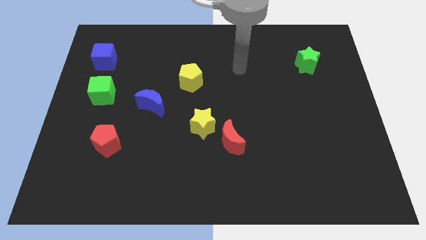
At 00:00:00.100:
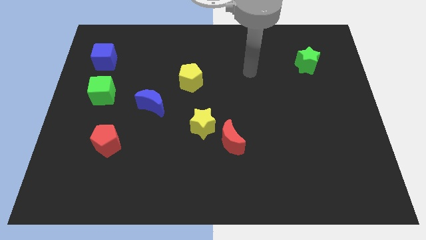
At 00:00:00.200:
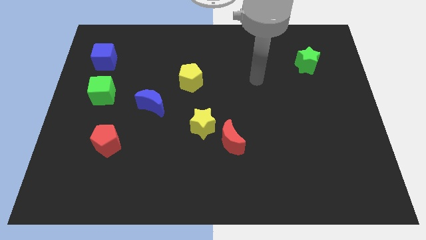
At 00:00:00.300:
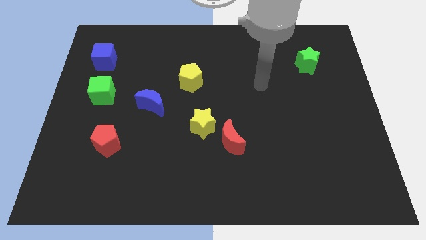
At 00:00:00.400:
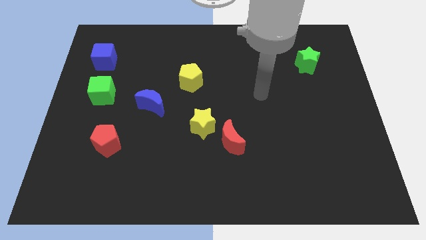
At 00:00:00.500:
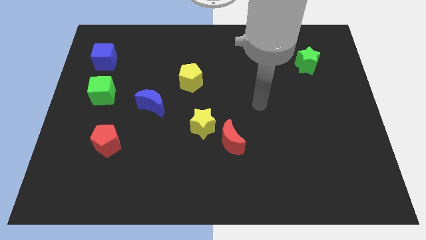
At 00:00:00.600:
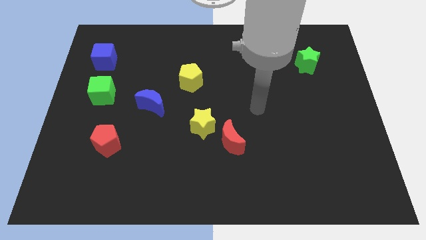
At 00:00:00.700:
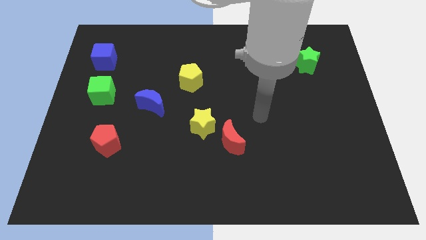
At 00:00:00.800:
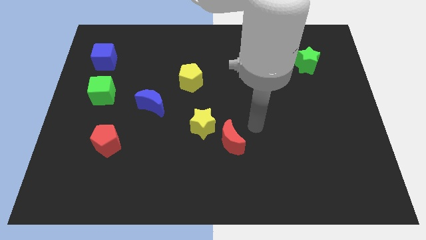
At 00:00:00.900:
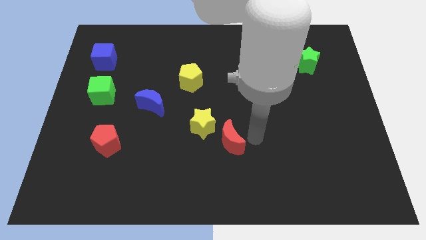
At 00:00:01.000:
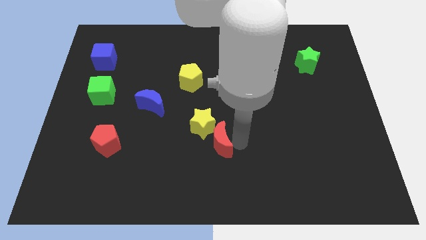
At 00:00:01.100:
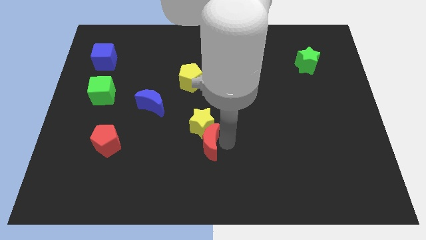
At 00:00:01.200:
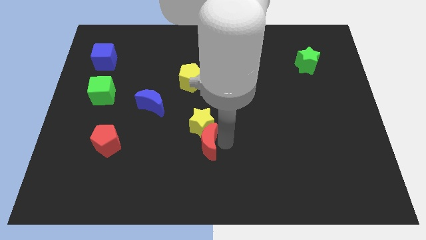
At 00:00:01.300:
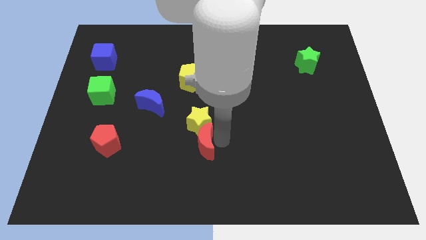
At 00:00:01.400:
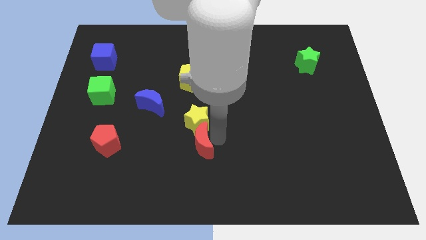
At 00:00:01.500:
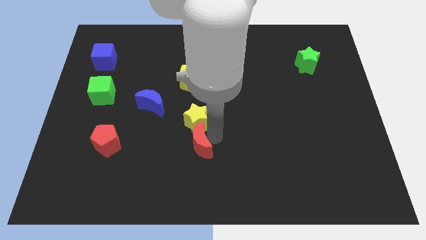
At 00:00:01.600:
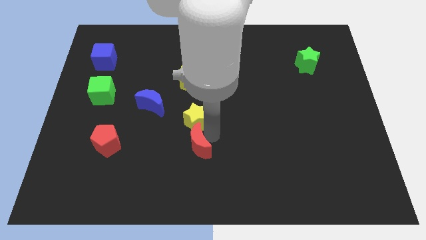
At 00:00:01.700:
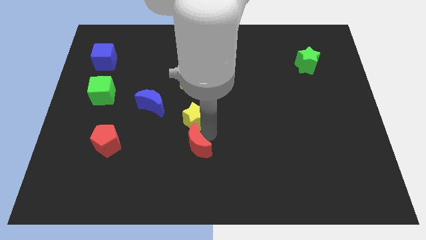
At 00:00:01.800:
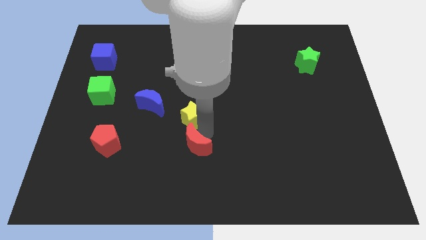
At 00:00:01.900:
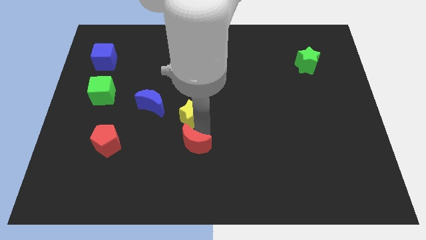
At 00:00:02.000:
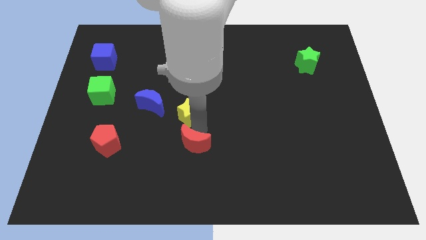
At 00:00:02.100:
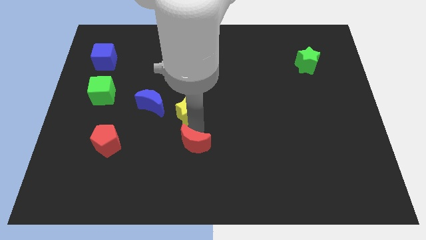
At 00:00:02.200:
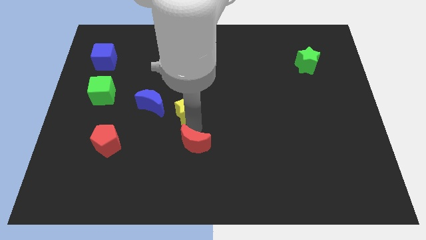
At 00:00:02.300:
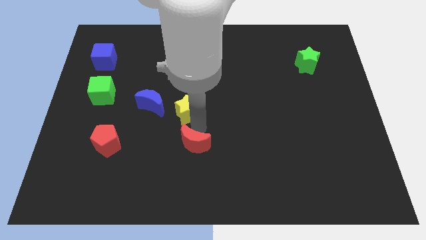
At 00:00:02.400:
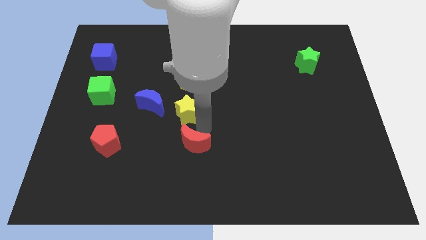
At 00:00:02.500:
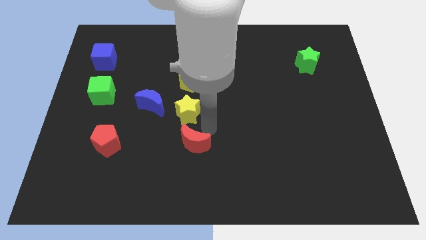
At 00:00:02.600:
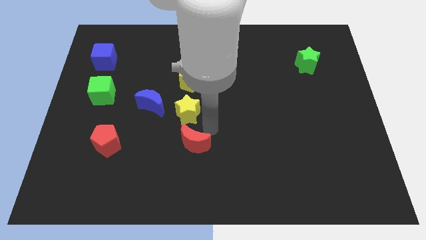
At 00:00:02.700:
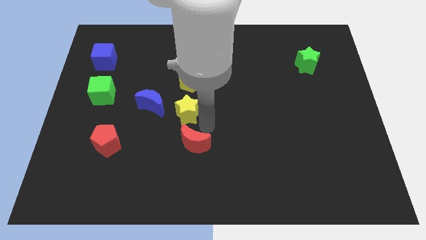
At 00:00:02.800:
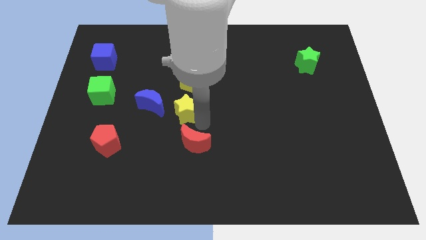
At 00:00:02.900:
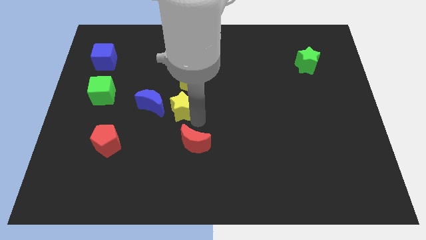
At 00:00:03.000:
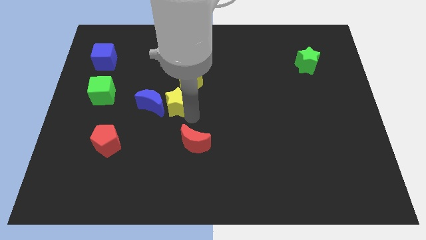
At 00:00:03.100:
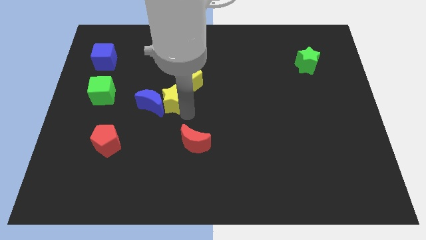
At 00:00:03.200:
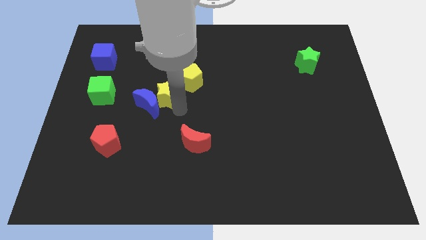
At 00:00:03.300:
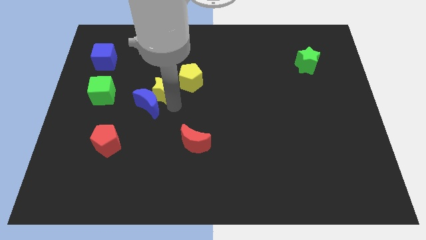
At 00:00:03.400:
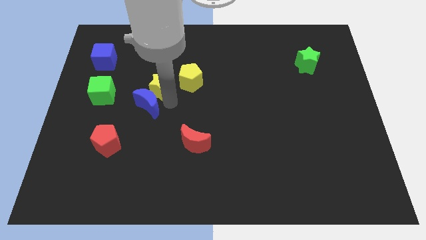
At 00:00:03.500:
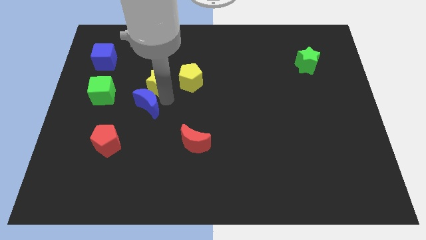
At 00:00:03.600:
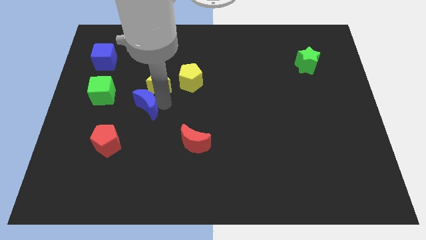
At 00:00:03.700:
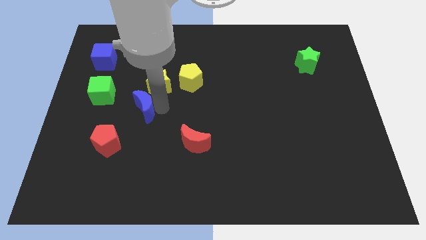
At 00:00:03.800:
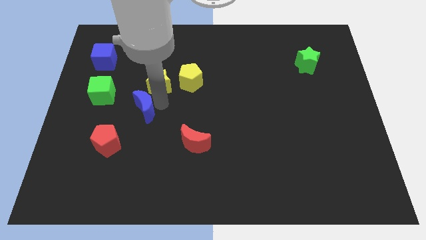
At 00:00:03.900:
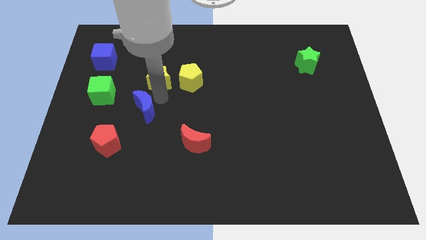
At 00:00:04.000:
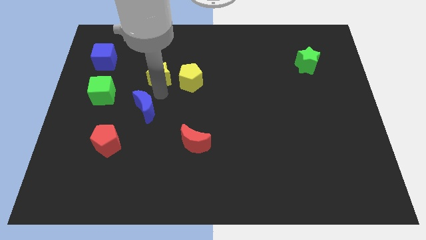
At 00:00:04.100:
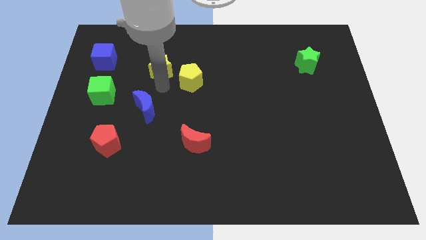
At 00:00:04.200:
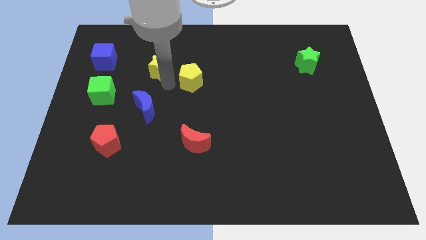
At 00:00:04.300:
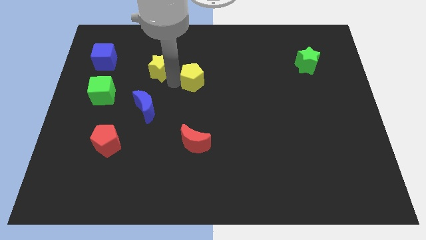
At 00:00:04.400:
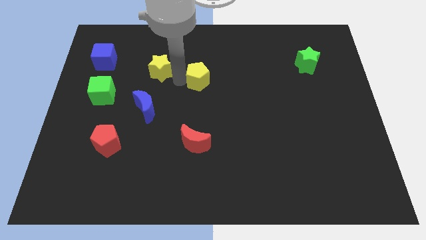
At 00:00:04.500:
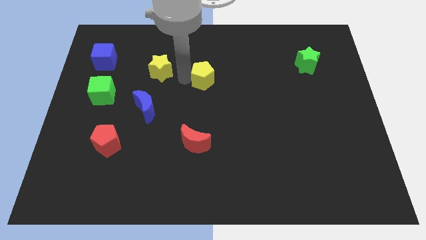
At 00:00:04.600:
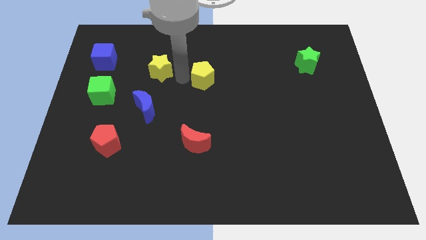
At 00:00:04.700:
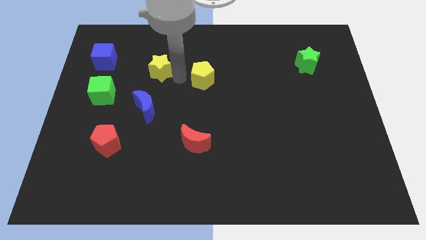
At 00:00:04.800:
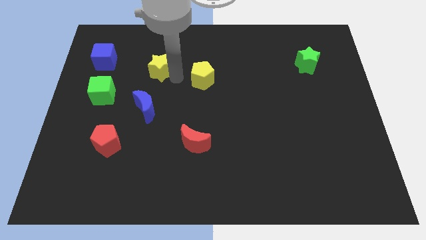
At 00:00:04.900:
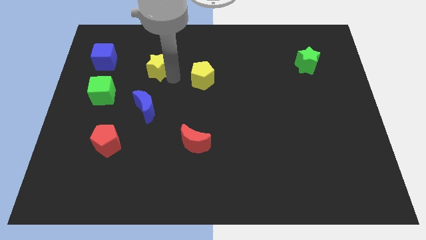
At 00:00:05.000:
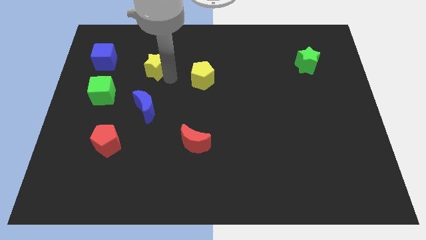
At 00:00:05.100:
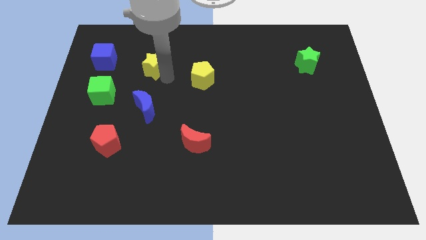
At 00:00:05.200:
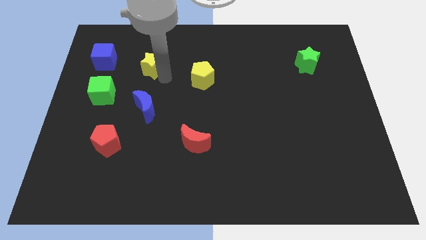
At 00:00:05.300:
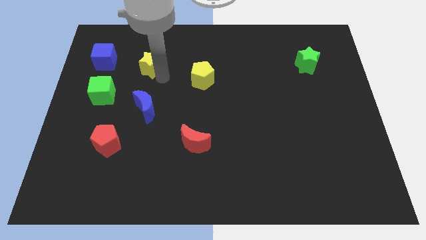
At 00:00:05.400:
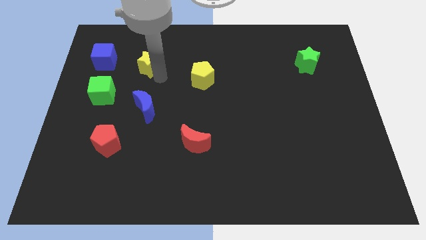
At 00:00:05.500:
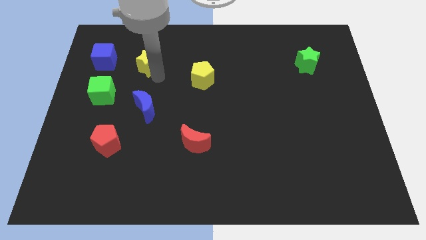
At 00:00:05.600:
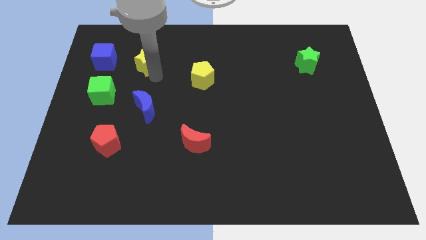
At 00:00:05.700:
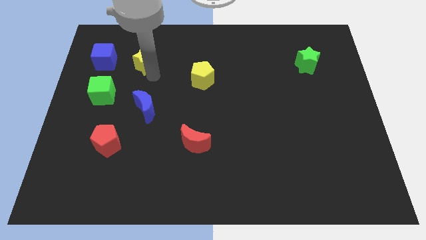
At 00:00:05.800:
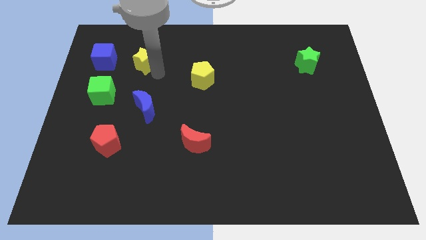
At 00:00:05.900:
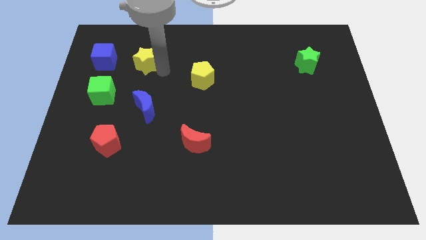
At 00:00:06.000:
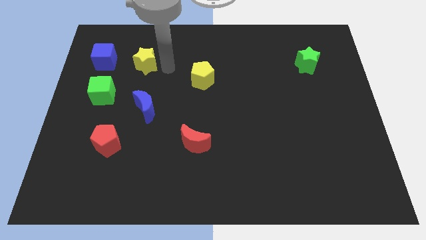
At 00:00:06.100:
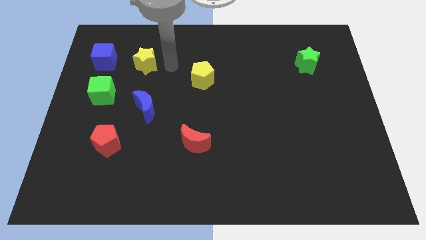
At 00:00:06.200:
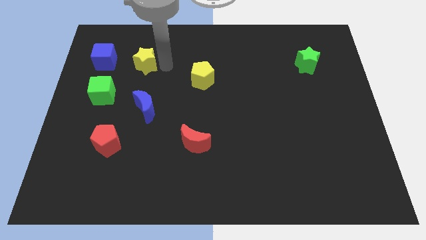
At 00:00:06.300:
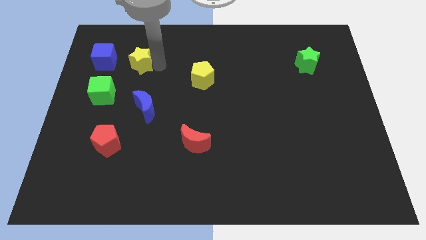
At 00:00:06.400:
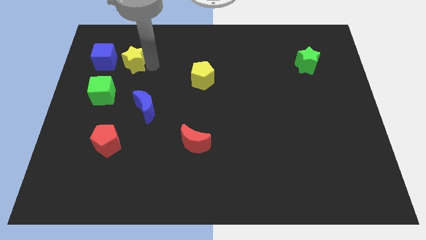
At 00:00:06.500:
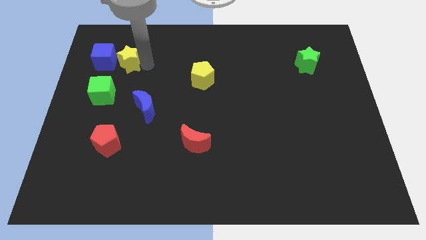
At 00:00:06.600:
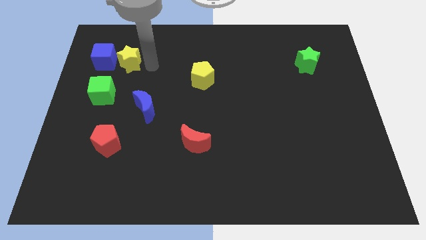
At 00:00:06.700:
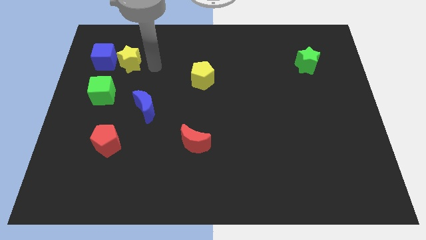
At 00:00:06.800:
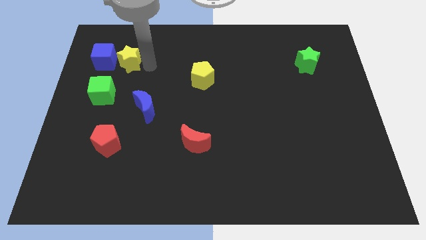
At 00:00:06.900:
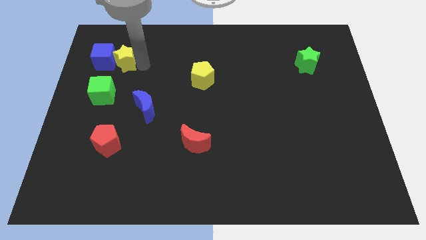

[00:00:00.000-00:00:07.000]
slide the yellow star towards the blue cube

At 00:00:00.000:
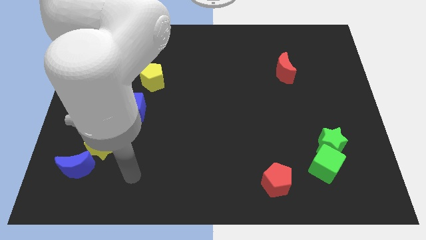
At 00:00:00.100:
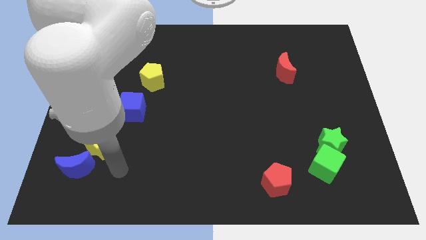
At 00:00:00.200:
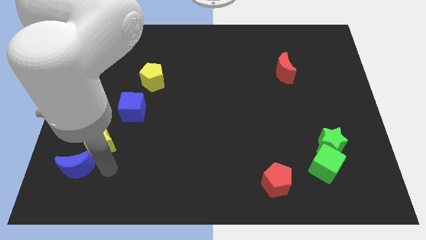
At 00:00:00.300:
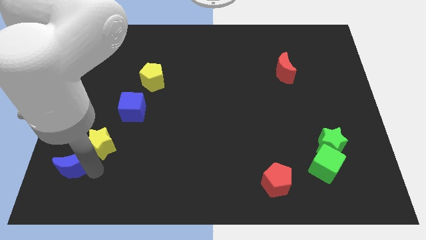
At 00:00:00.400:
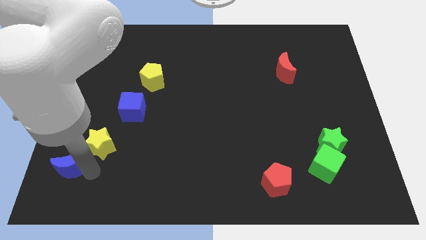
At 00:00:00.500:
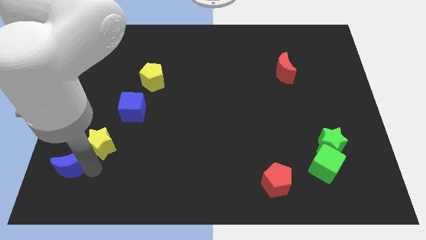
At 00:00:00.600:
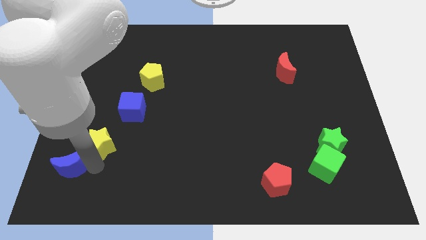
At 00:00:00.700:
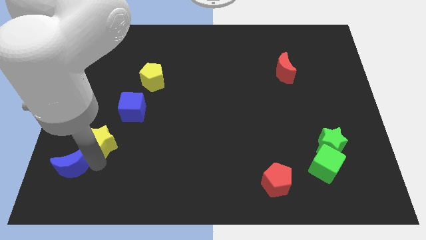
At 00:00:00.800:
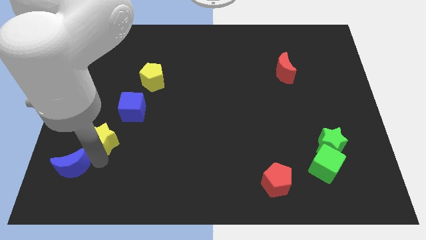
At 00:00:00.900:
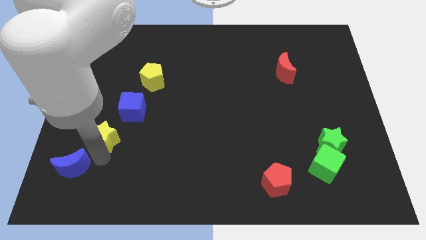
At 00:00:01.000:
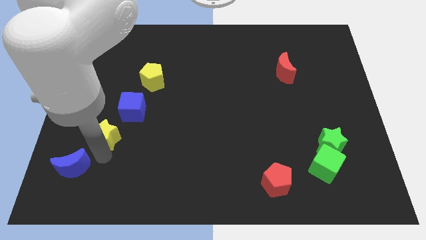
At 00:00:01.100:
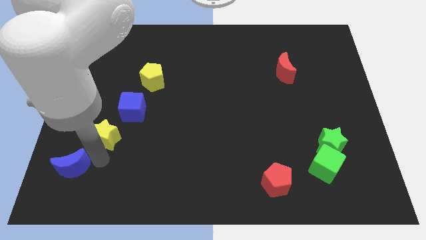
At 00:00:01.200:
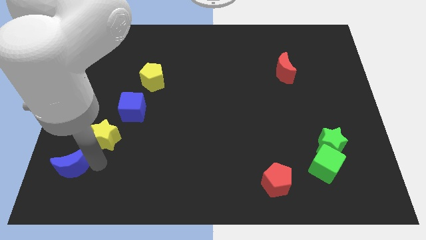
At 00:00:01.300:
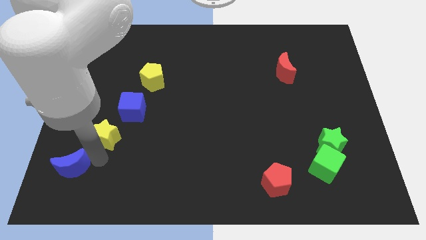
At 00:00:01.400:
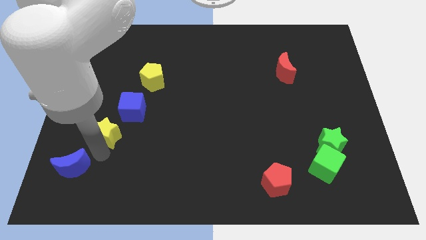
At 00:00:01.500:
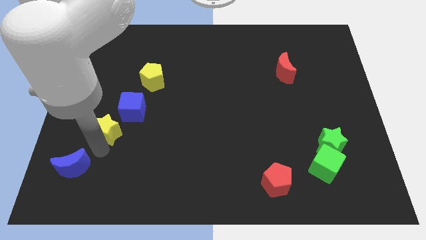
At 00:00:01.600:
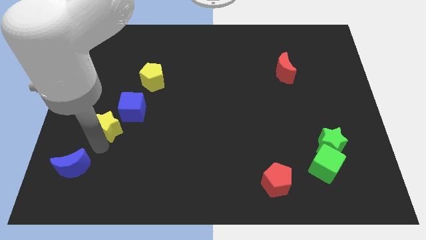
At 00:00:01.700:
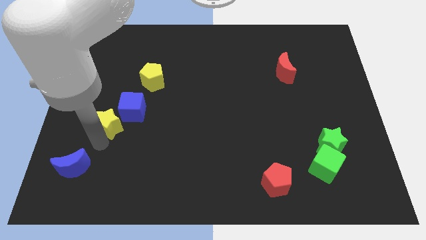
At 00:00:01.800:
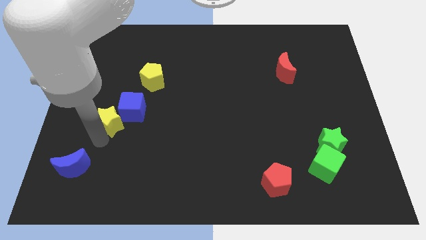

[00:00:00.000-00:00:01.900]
push the yellow star to the blue cube
